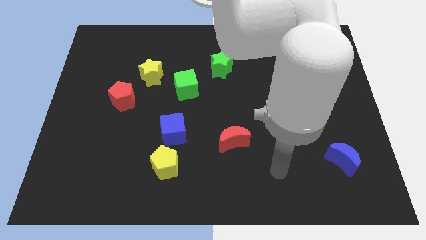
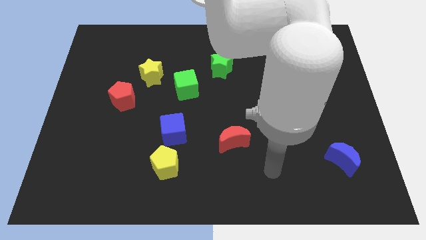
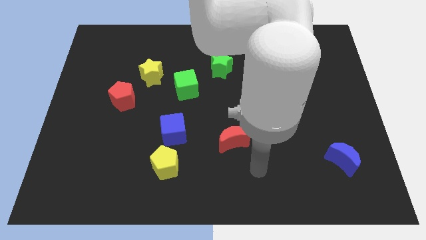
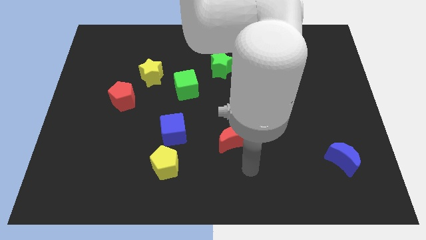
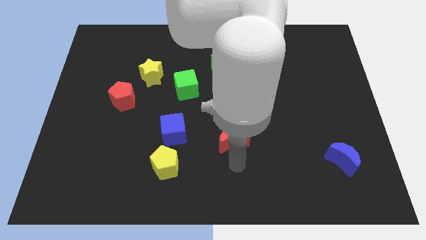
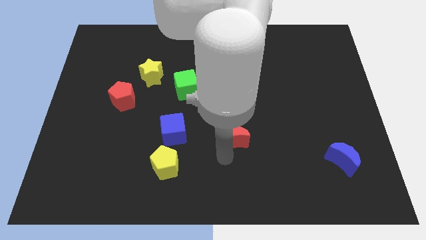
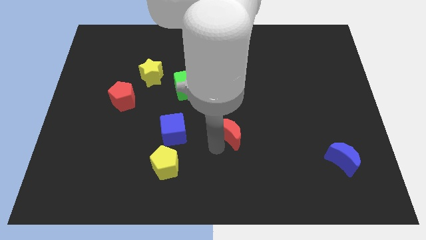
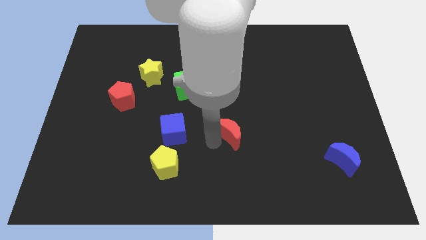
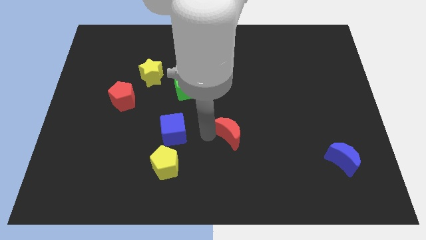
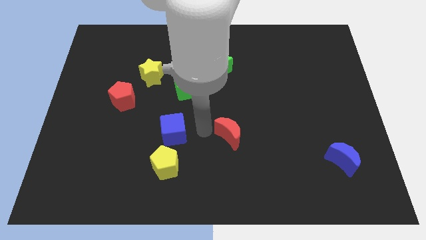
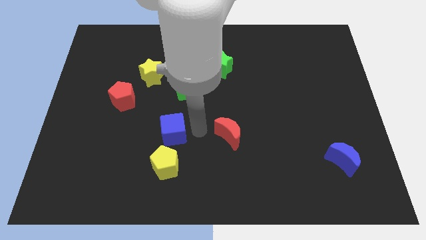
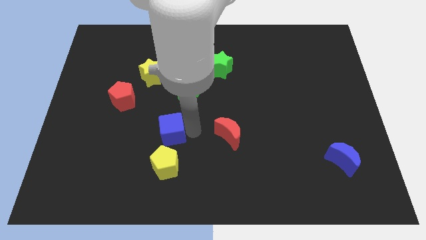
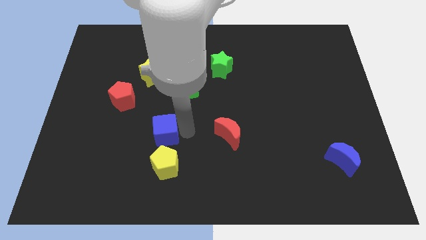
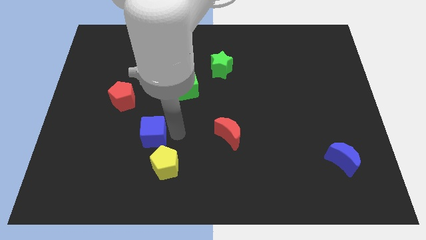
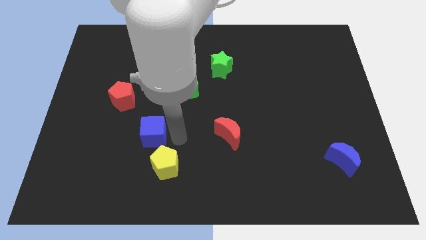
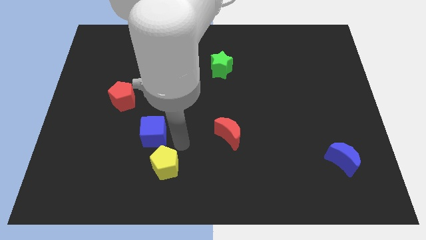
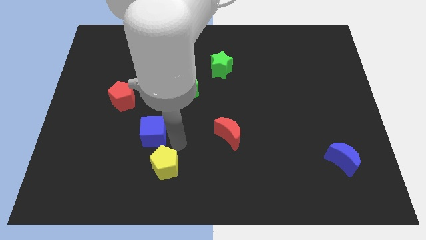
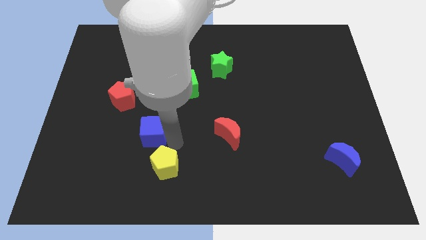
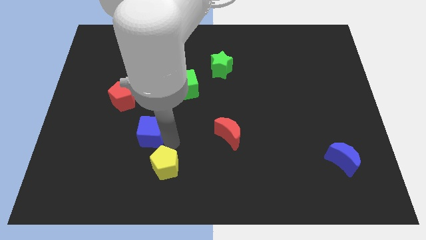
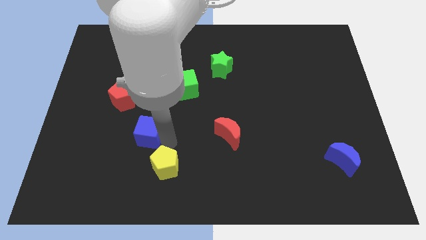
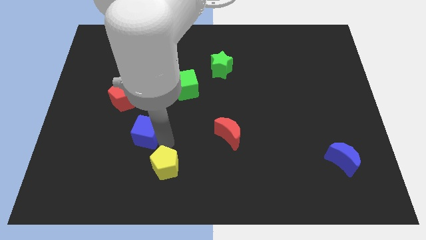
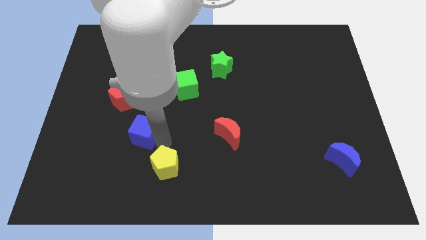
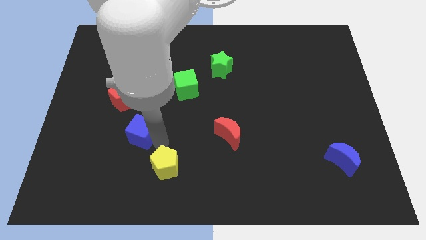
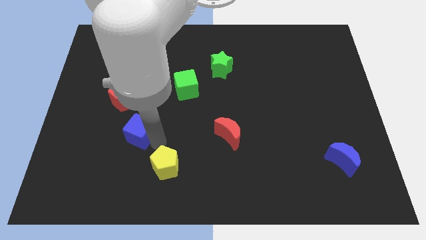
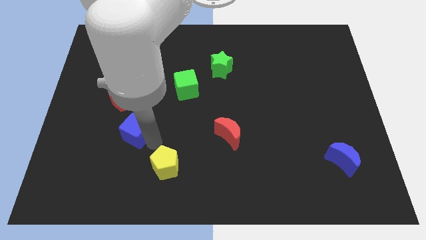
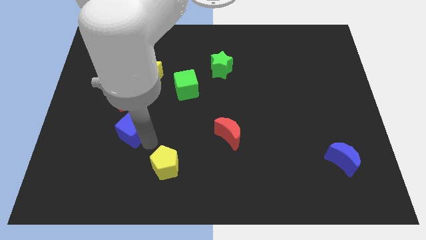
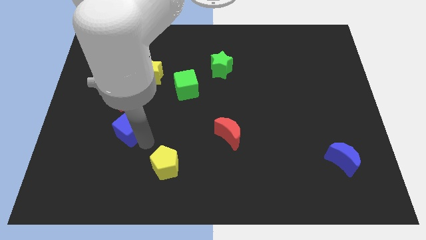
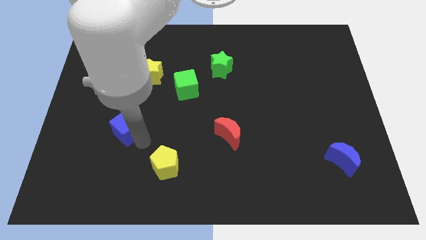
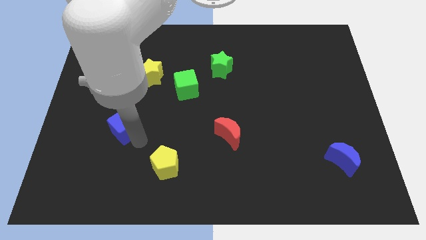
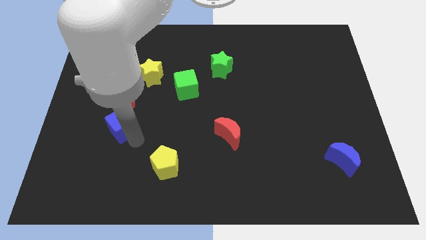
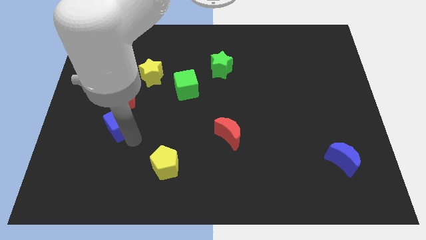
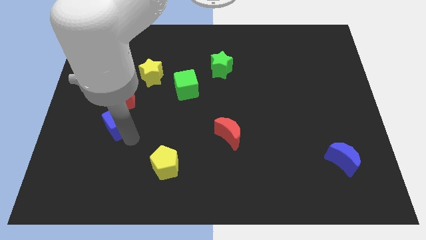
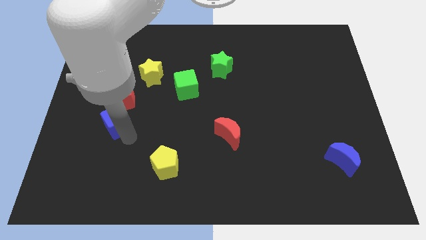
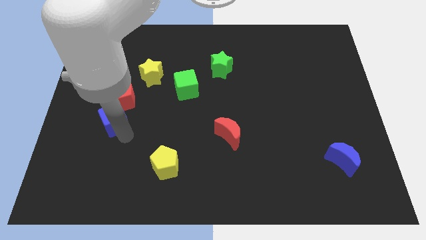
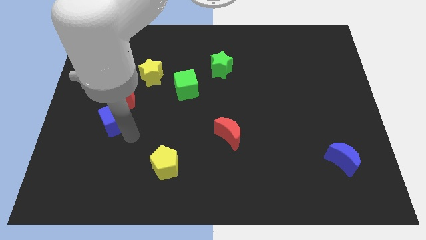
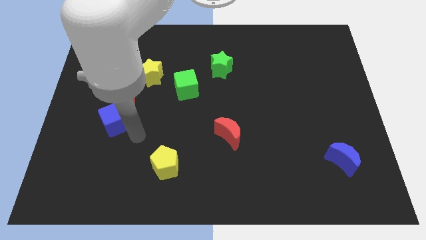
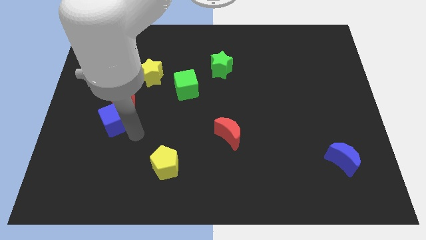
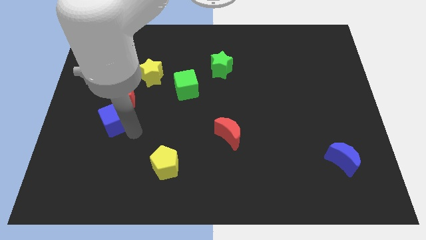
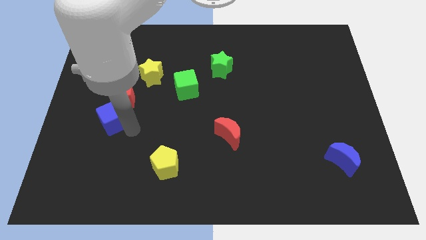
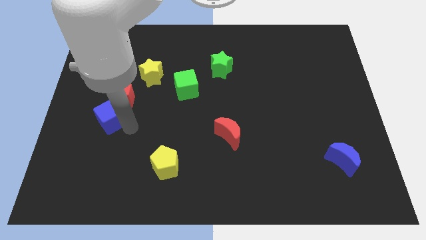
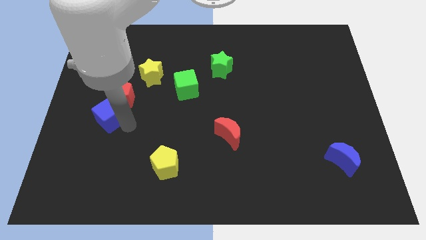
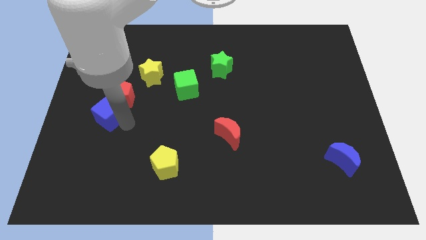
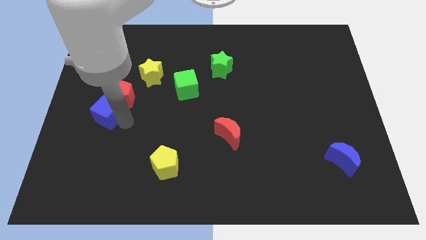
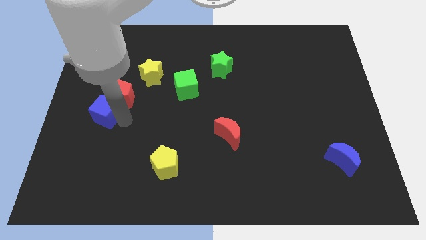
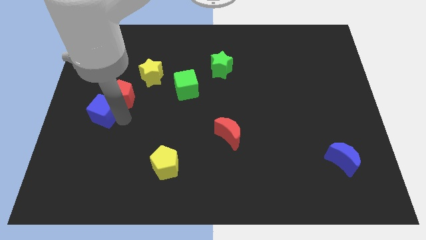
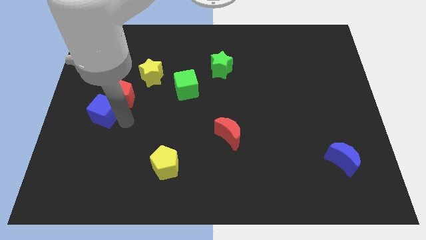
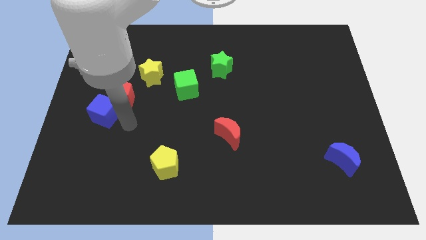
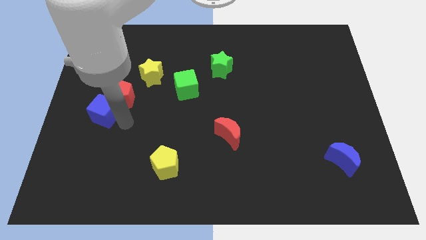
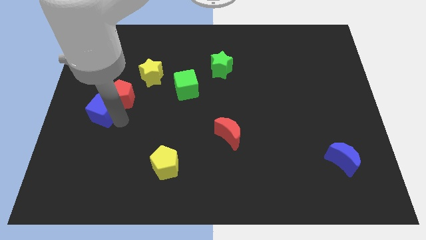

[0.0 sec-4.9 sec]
move the blue cube to the left side of the board

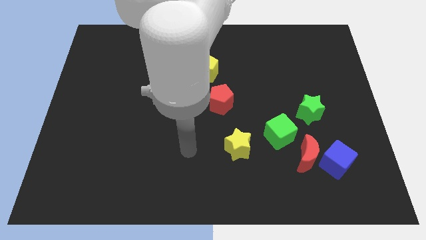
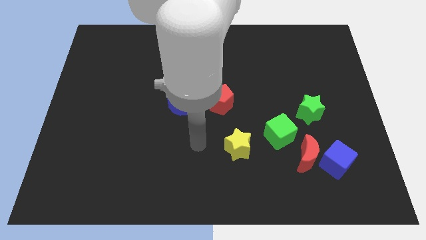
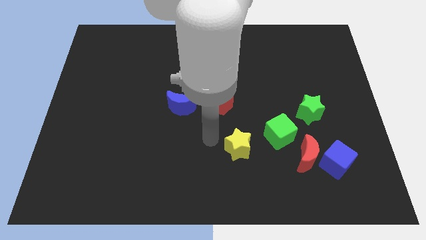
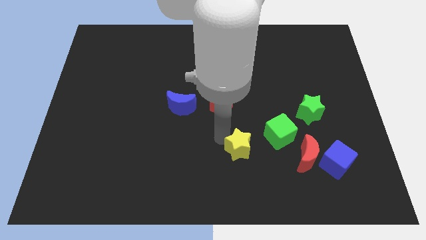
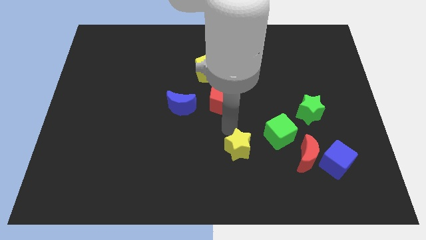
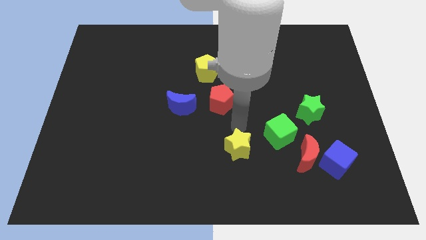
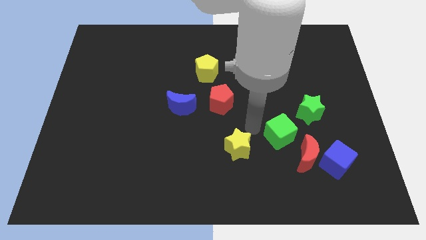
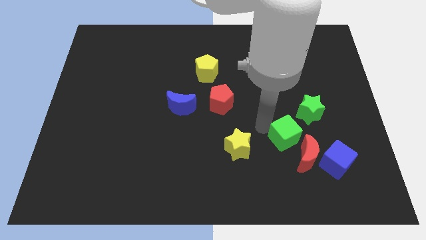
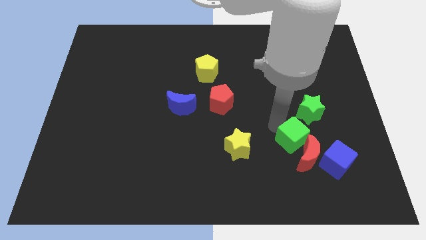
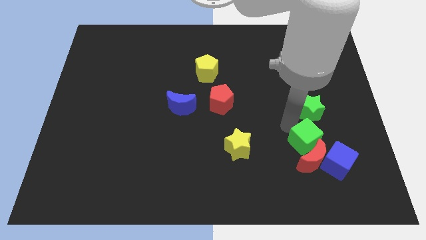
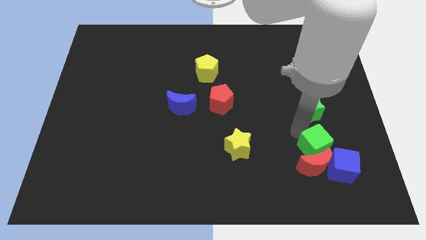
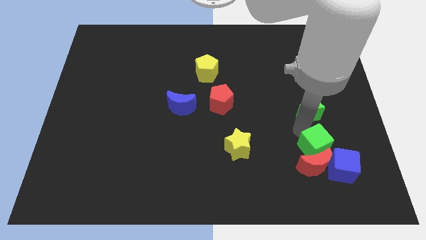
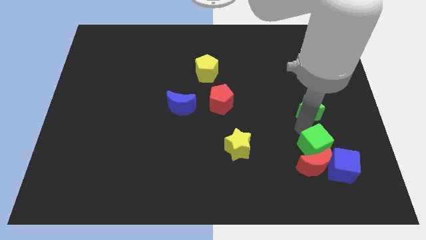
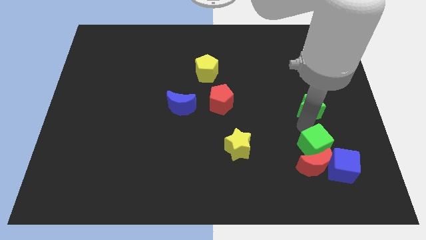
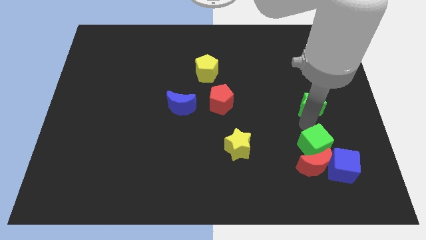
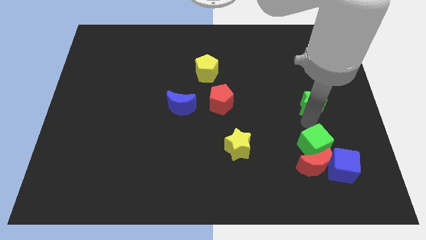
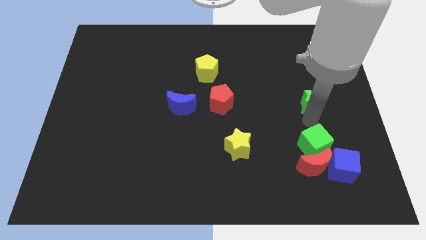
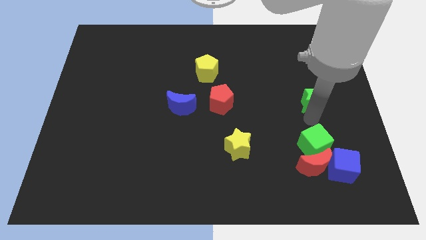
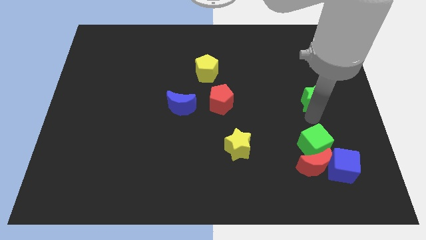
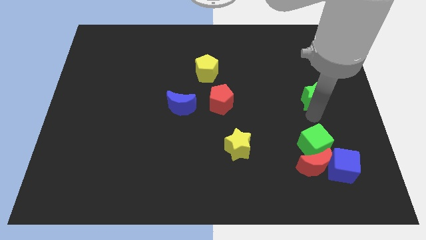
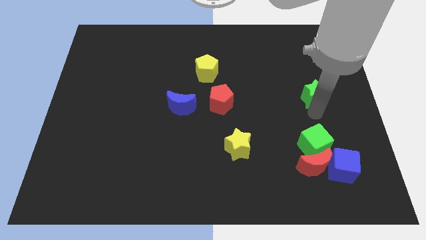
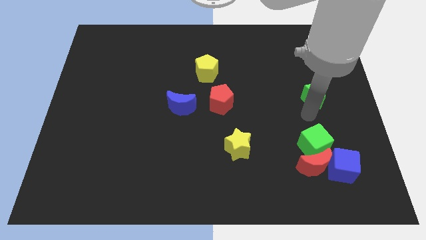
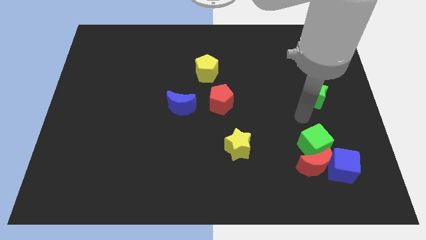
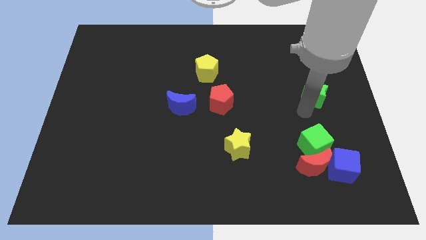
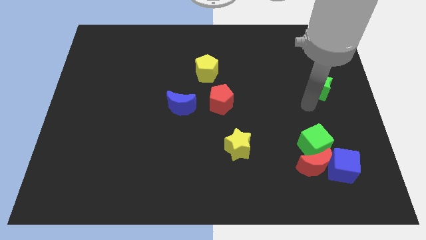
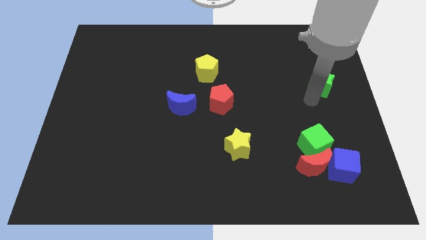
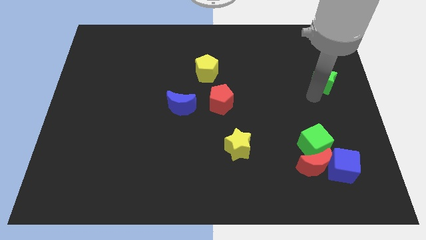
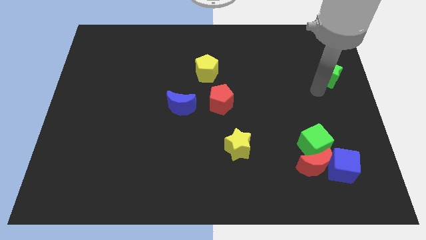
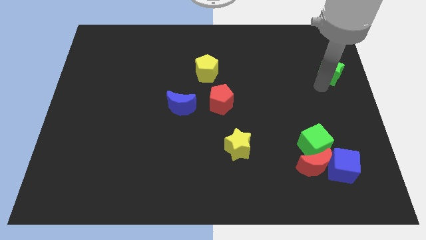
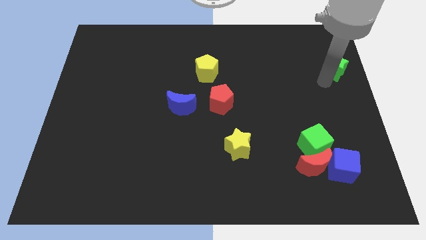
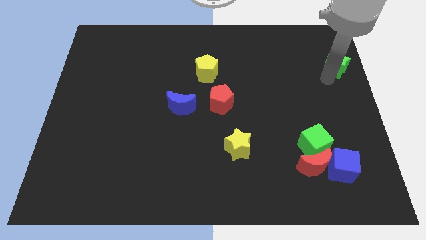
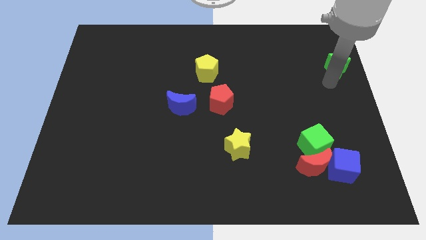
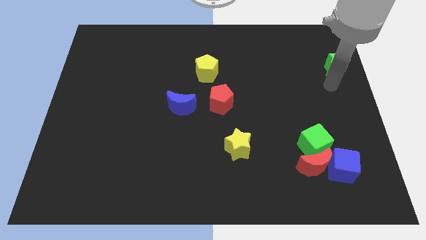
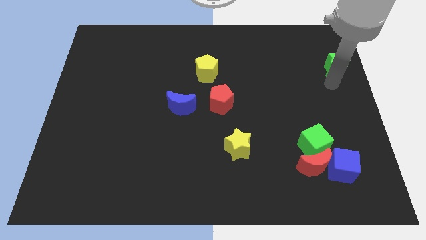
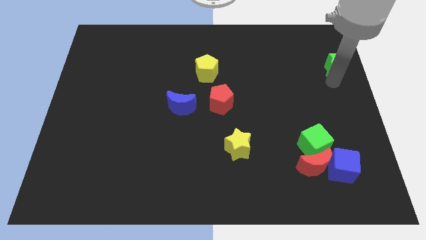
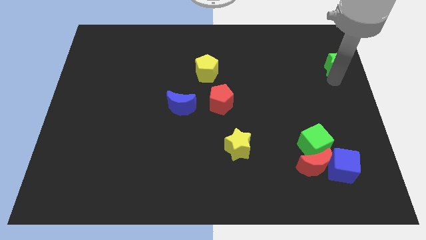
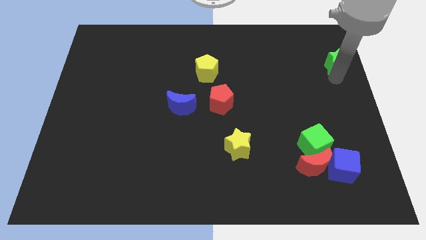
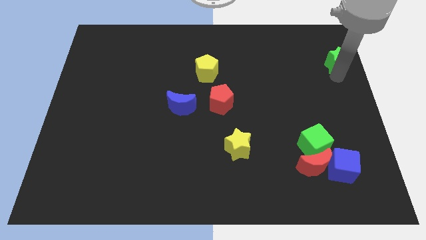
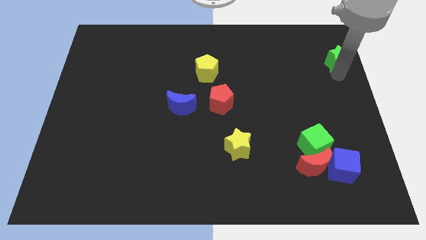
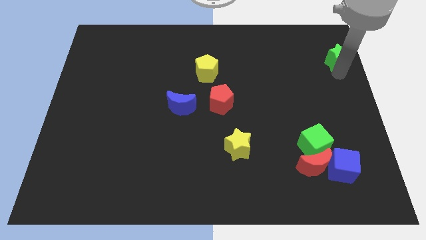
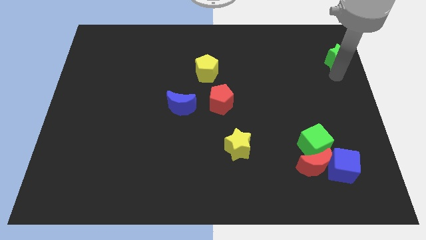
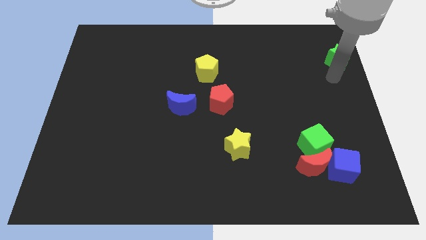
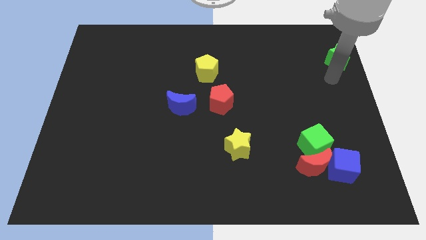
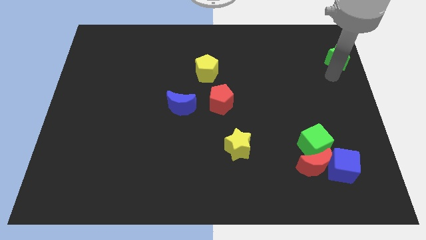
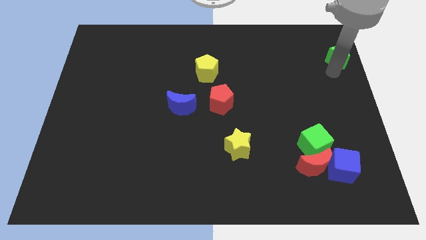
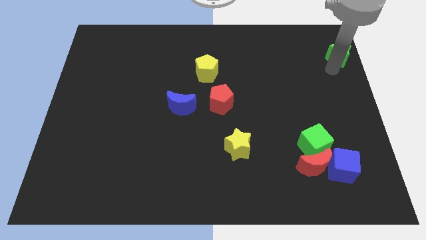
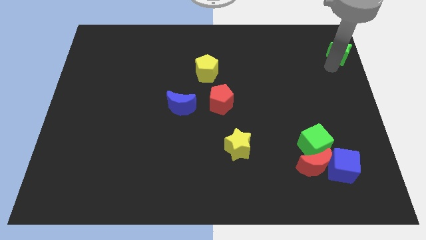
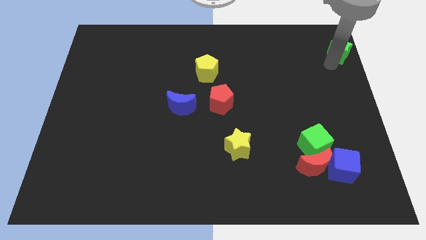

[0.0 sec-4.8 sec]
put the green star to the upper right corner
